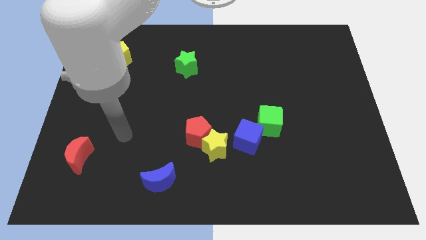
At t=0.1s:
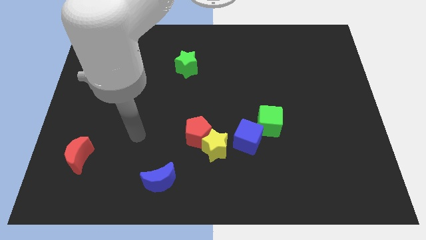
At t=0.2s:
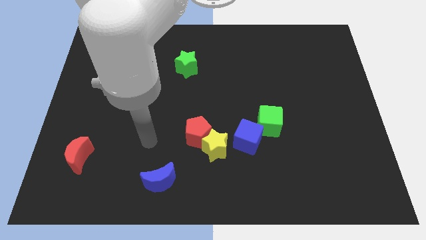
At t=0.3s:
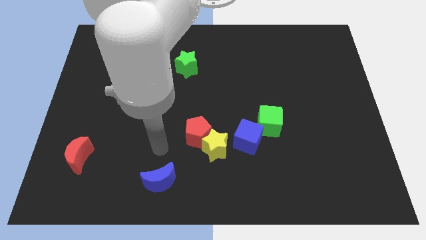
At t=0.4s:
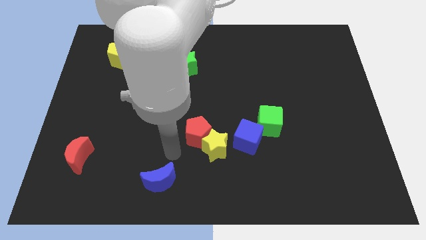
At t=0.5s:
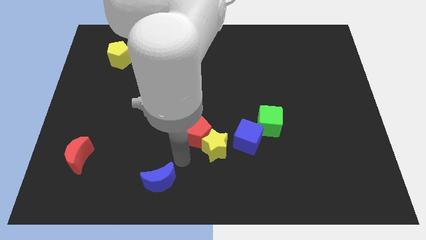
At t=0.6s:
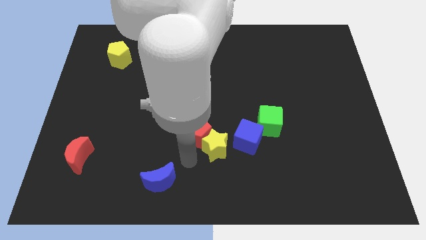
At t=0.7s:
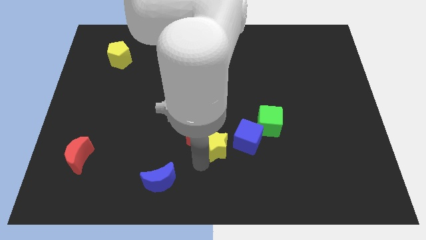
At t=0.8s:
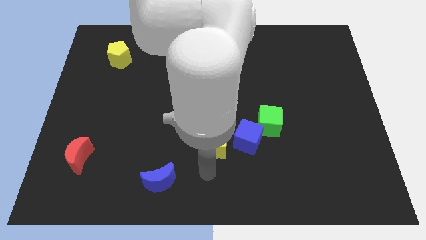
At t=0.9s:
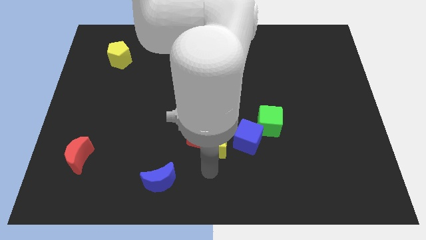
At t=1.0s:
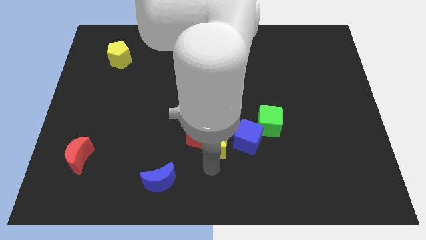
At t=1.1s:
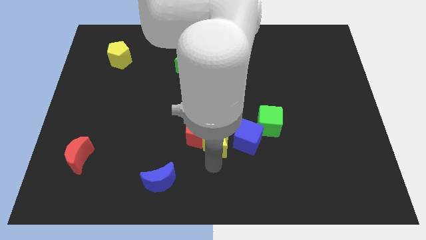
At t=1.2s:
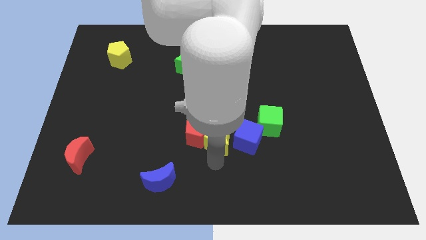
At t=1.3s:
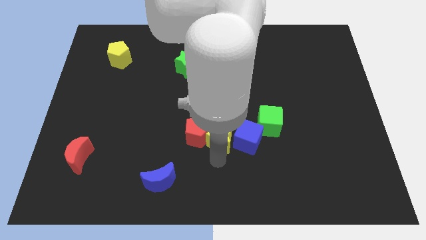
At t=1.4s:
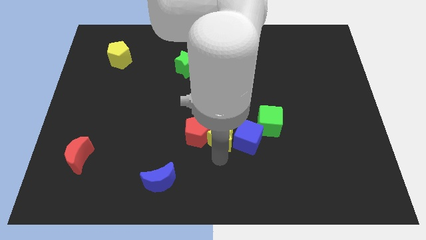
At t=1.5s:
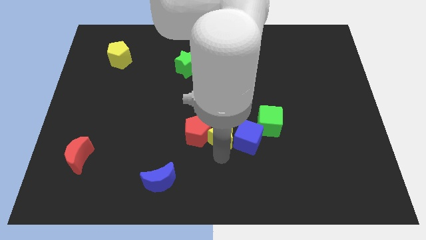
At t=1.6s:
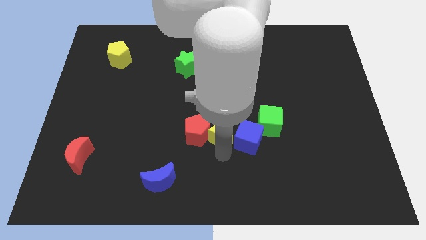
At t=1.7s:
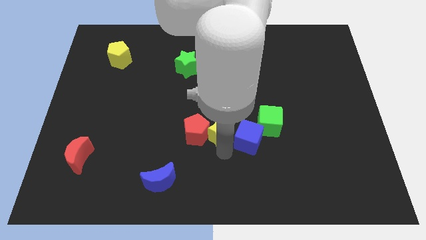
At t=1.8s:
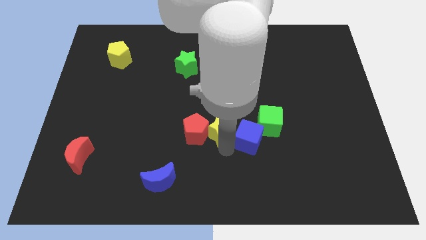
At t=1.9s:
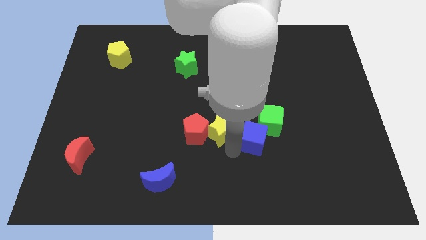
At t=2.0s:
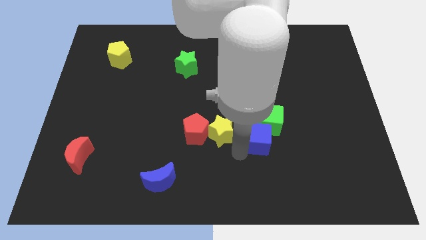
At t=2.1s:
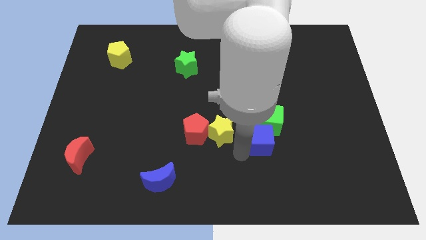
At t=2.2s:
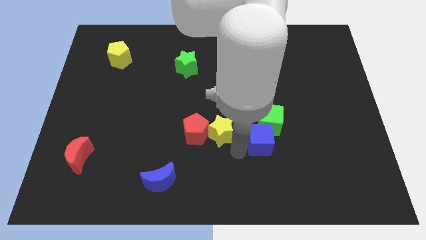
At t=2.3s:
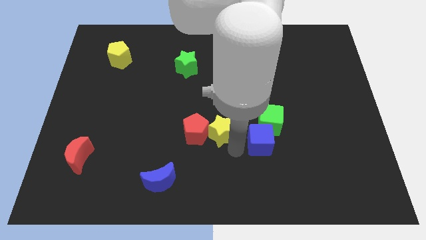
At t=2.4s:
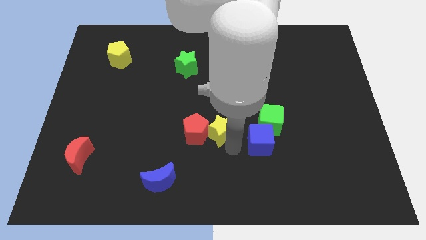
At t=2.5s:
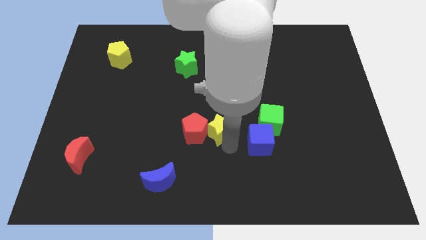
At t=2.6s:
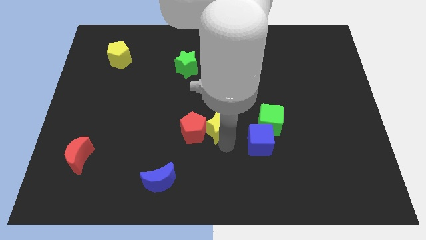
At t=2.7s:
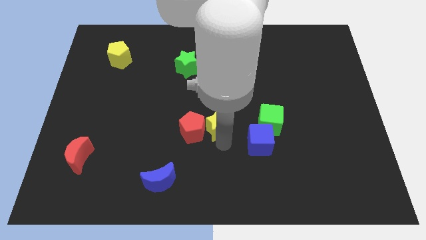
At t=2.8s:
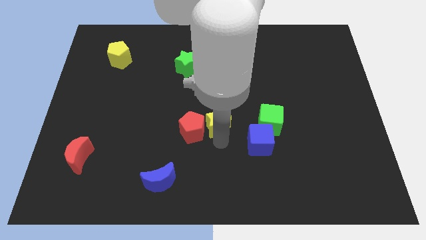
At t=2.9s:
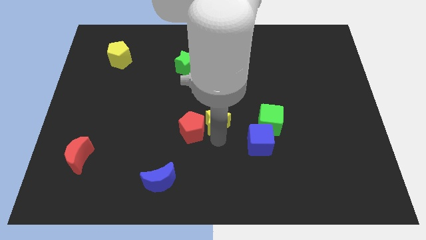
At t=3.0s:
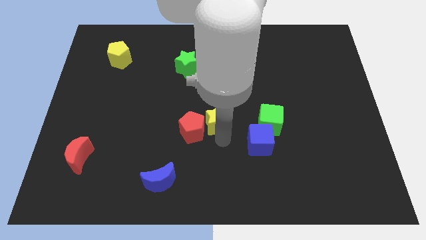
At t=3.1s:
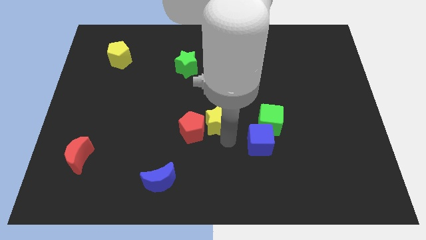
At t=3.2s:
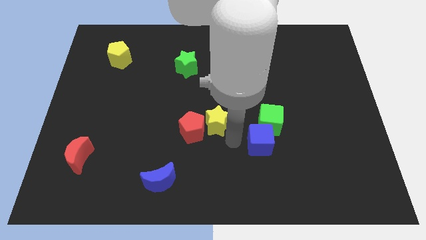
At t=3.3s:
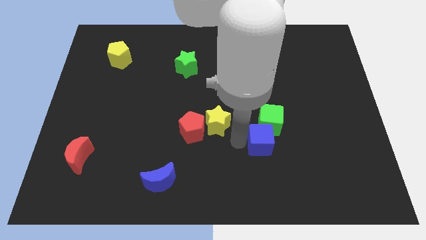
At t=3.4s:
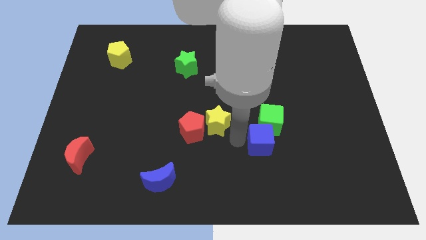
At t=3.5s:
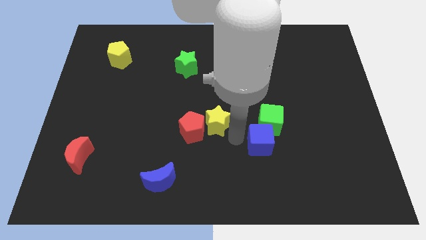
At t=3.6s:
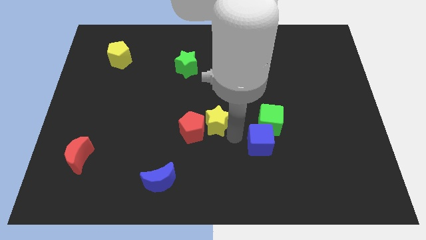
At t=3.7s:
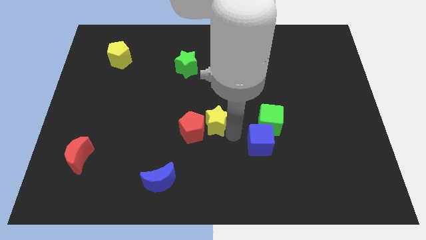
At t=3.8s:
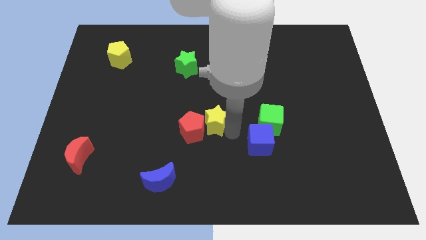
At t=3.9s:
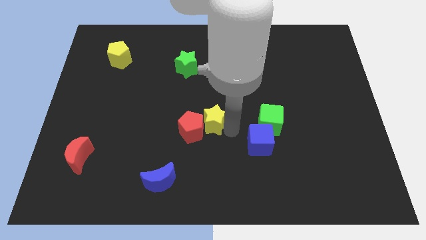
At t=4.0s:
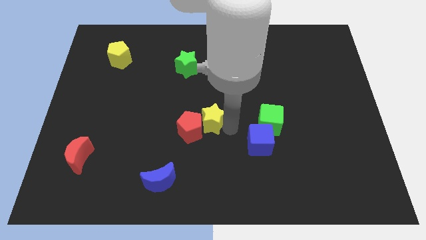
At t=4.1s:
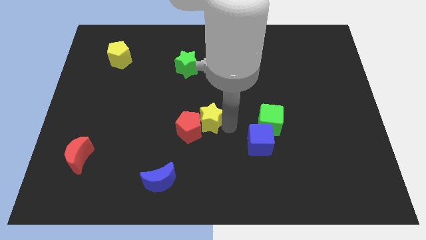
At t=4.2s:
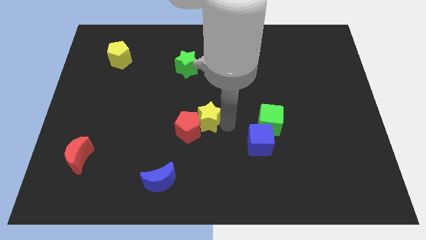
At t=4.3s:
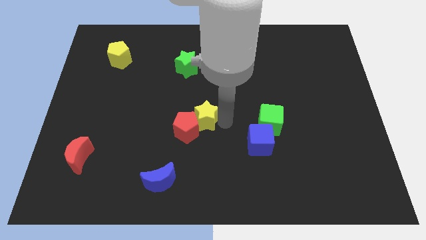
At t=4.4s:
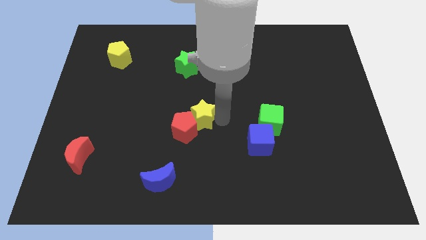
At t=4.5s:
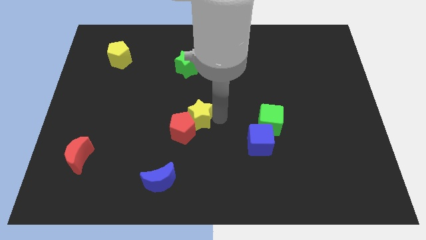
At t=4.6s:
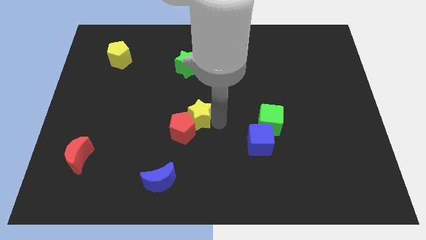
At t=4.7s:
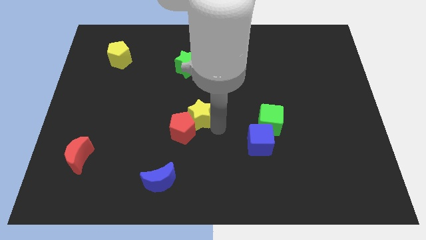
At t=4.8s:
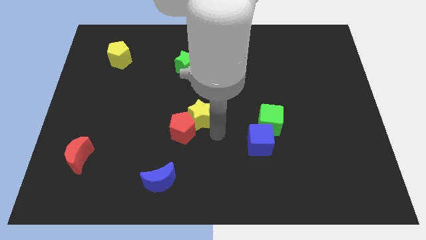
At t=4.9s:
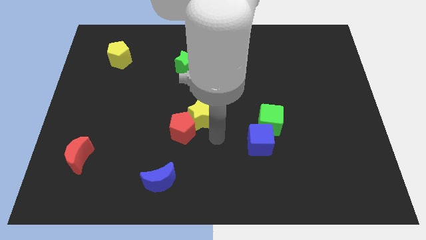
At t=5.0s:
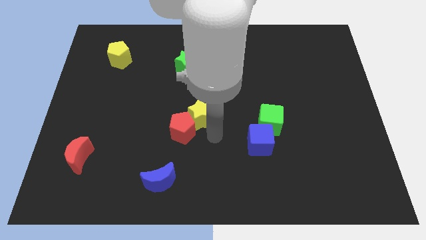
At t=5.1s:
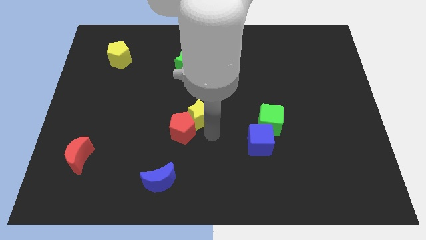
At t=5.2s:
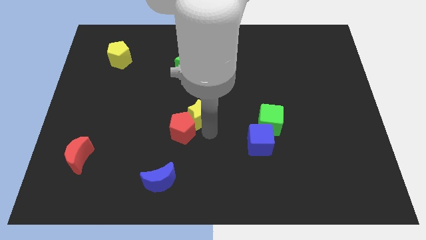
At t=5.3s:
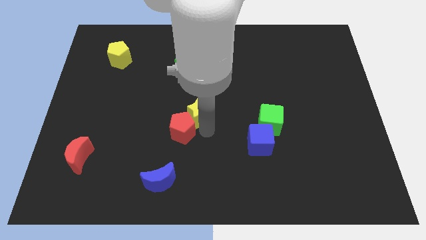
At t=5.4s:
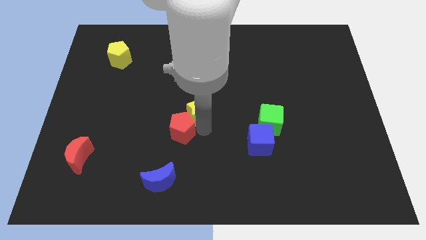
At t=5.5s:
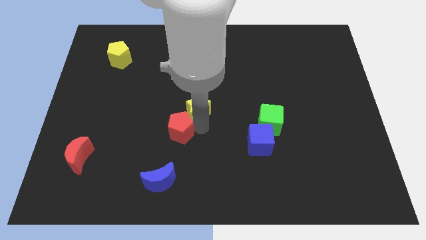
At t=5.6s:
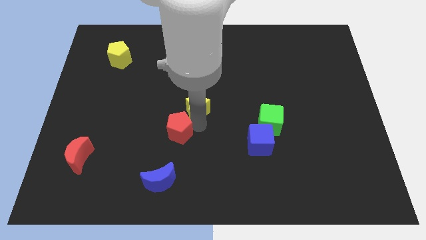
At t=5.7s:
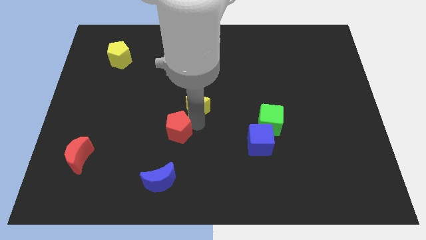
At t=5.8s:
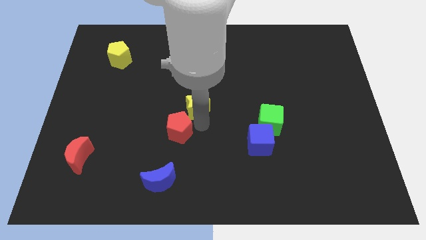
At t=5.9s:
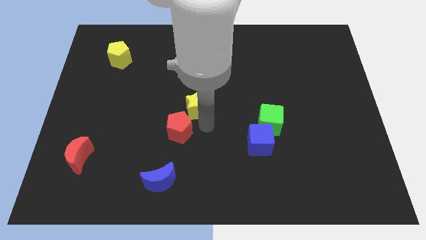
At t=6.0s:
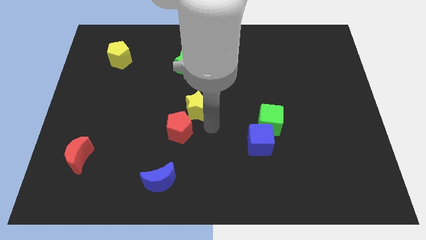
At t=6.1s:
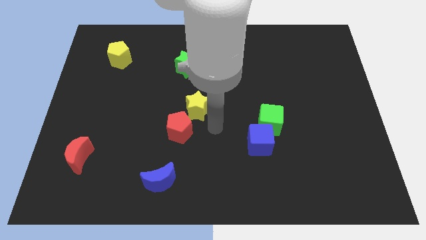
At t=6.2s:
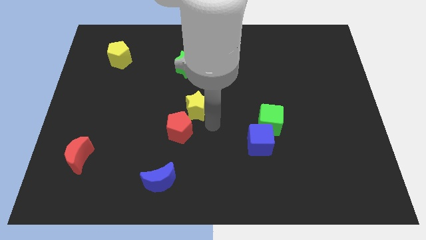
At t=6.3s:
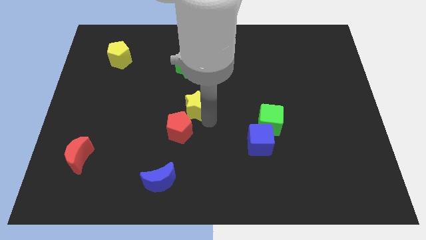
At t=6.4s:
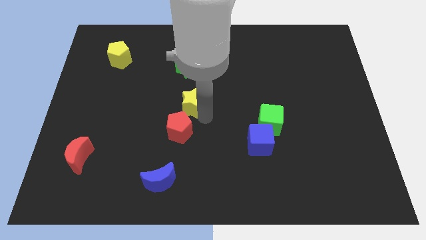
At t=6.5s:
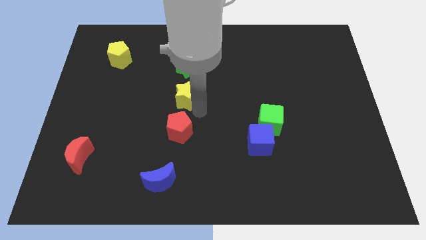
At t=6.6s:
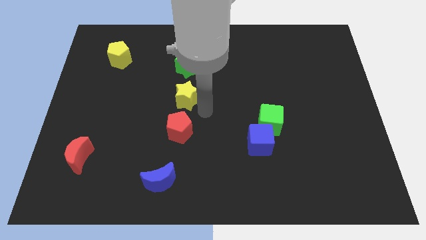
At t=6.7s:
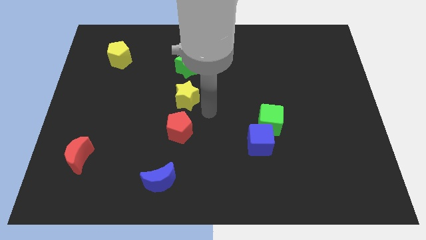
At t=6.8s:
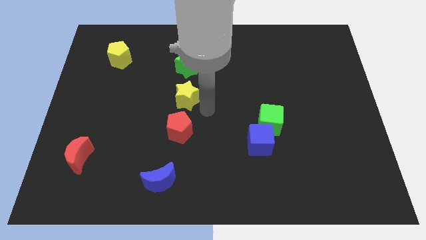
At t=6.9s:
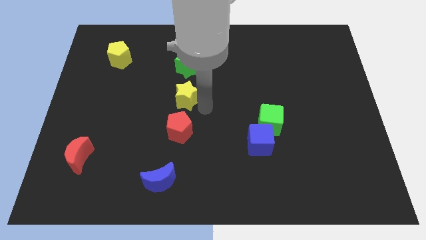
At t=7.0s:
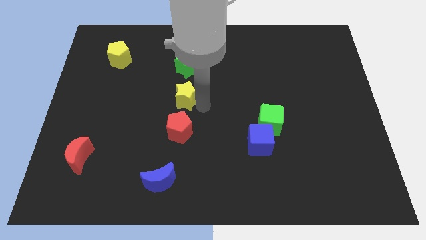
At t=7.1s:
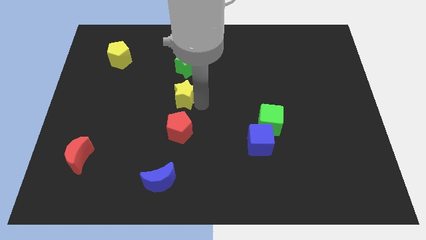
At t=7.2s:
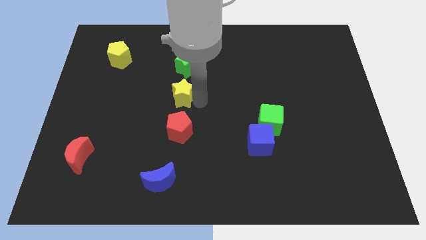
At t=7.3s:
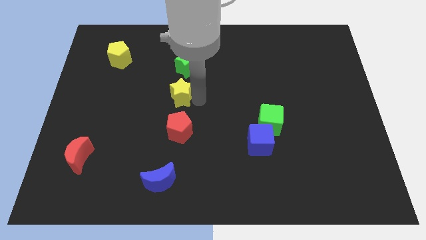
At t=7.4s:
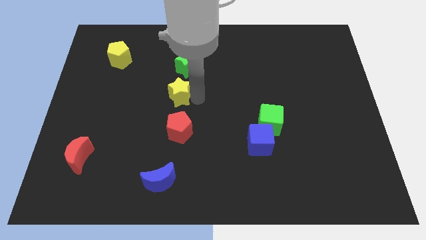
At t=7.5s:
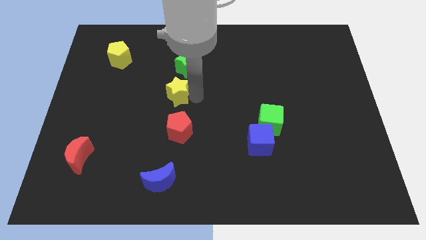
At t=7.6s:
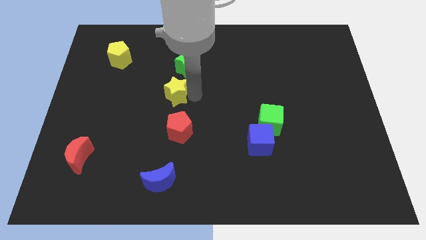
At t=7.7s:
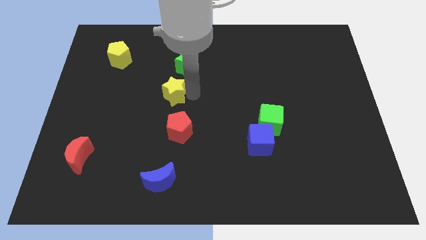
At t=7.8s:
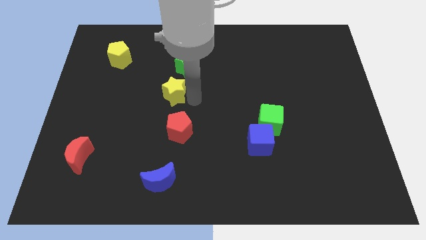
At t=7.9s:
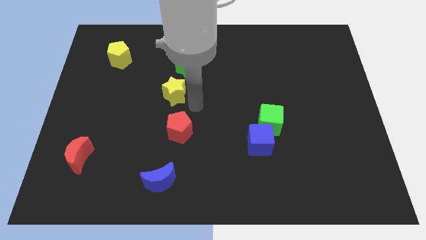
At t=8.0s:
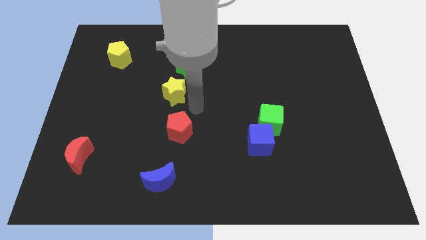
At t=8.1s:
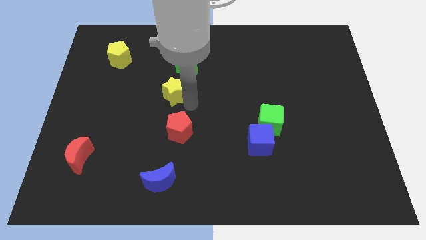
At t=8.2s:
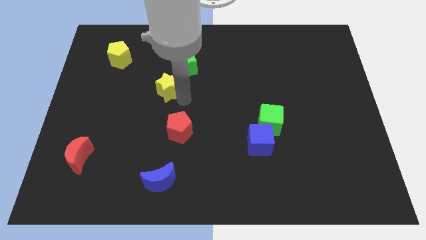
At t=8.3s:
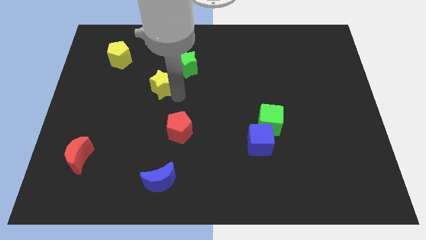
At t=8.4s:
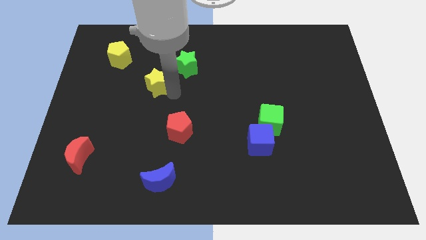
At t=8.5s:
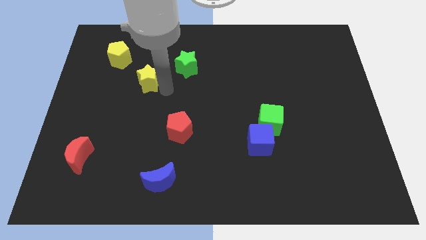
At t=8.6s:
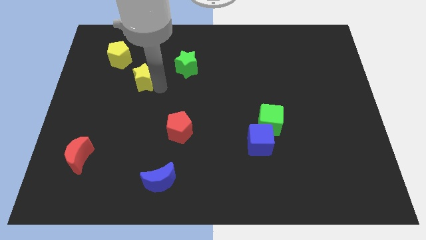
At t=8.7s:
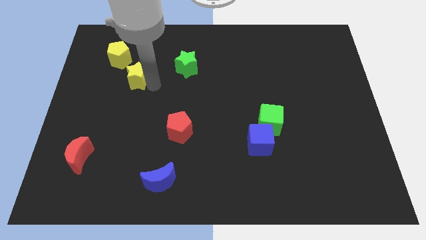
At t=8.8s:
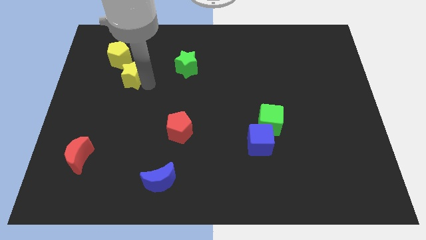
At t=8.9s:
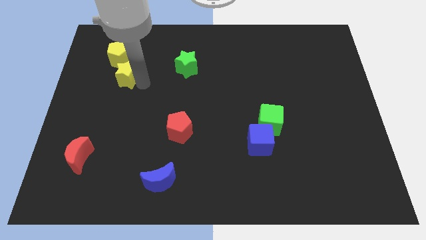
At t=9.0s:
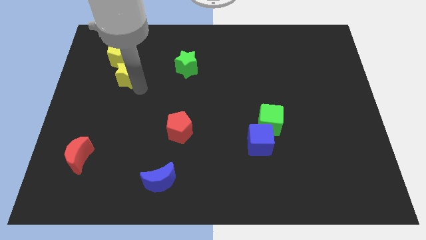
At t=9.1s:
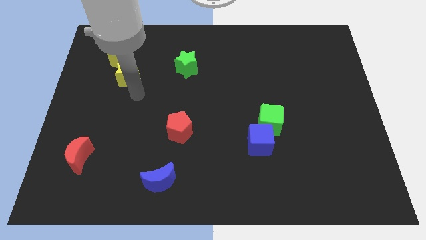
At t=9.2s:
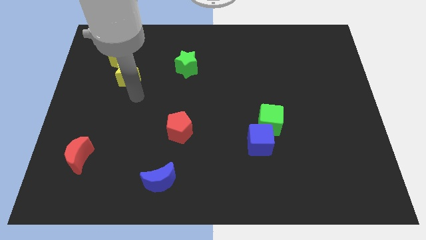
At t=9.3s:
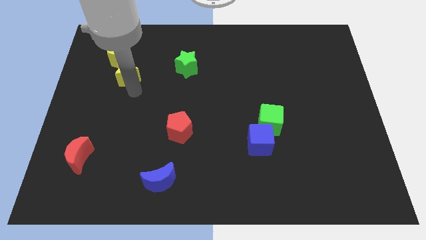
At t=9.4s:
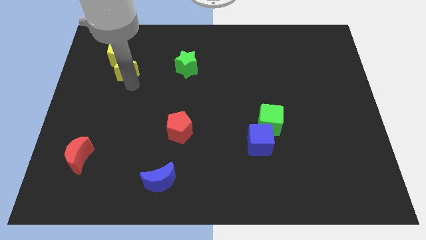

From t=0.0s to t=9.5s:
move the yellow star towards the yellow pentagon
